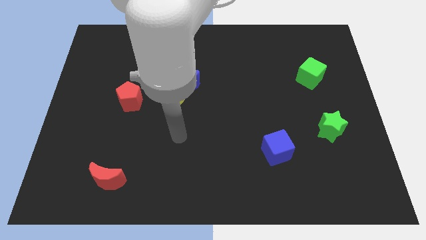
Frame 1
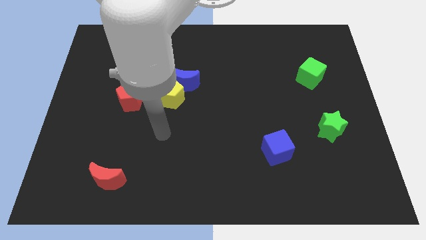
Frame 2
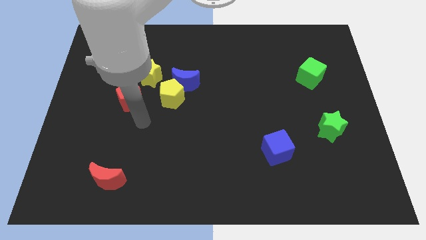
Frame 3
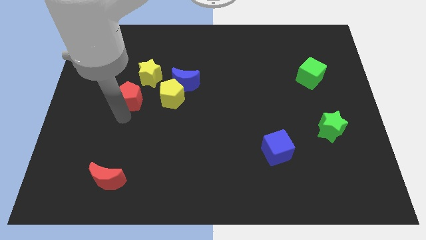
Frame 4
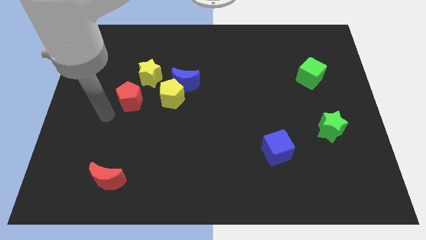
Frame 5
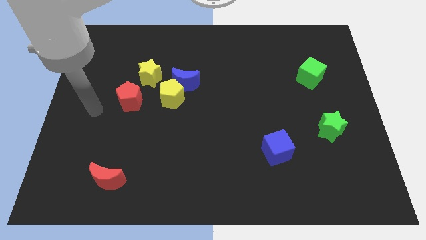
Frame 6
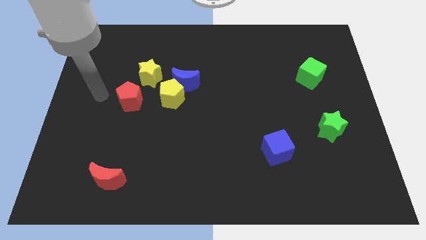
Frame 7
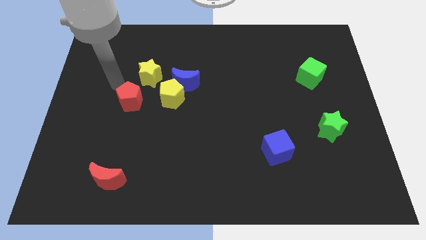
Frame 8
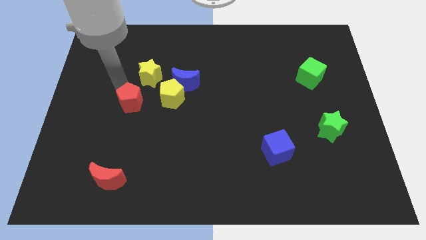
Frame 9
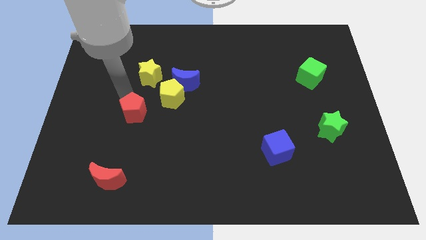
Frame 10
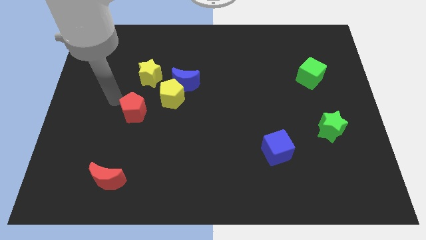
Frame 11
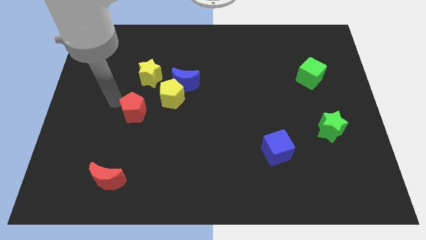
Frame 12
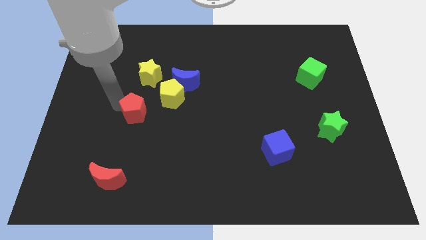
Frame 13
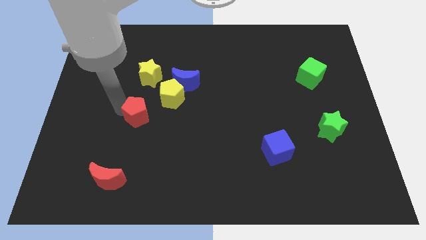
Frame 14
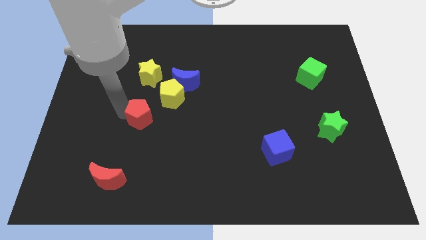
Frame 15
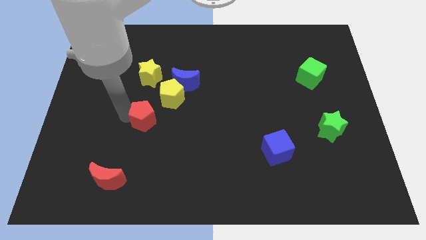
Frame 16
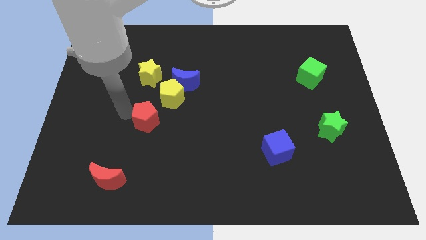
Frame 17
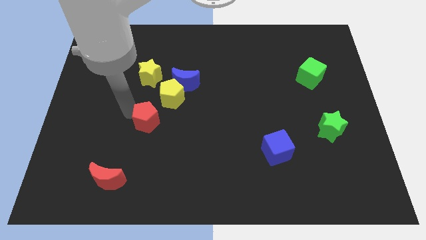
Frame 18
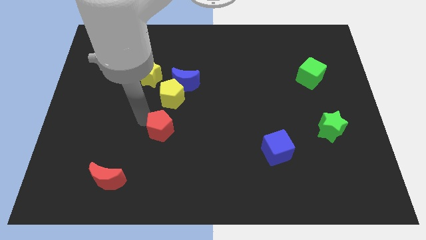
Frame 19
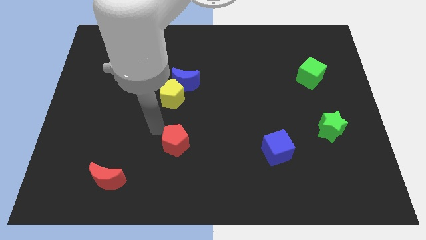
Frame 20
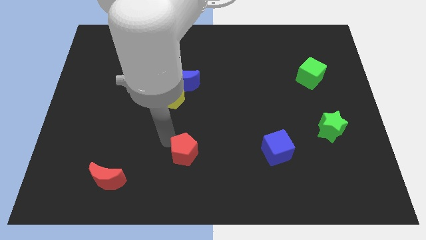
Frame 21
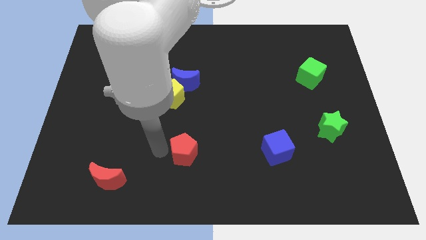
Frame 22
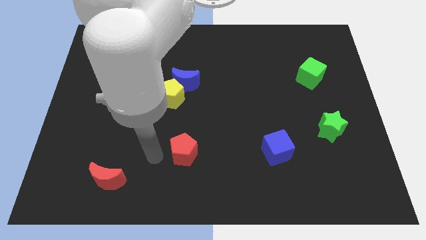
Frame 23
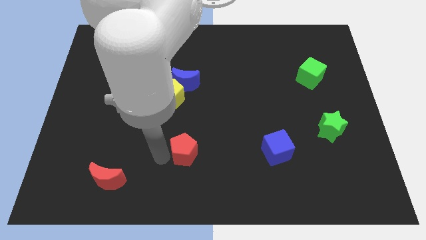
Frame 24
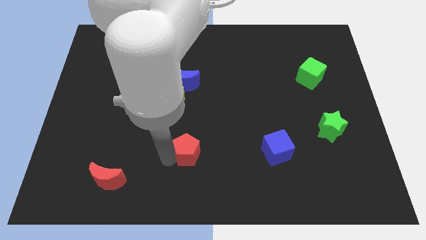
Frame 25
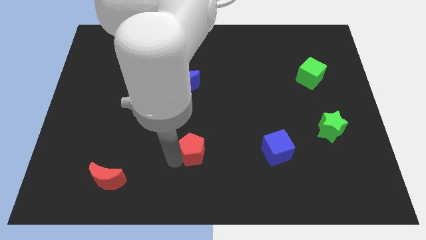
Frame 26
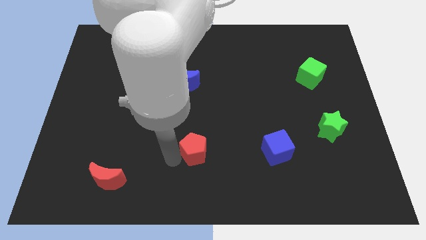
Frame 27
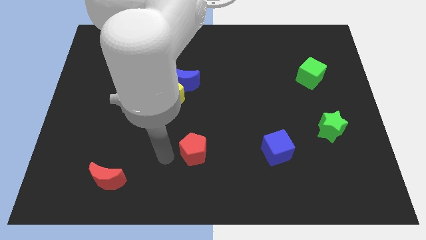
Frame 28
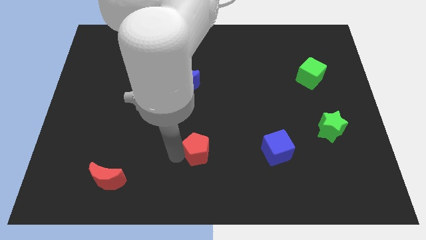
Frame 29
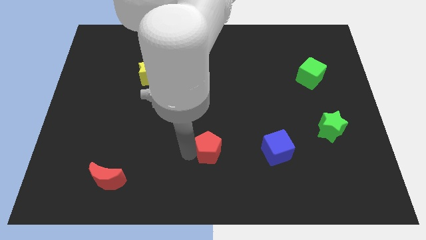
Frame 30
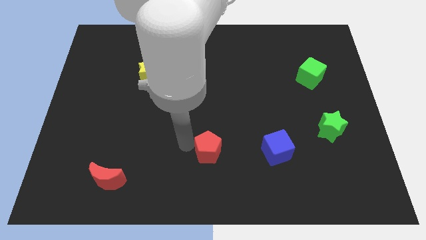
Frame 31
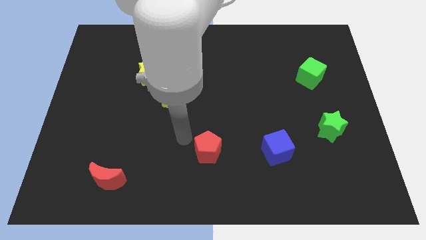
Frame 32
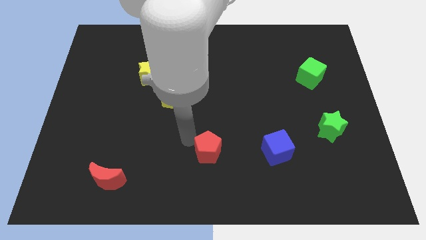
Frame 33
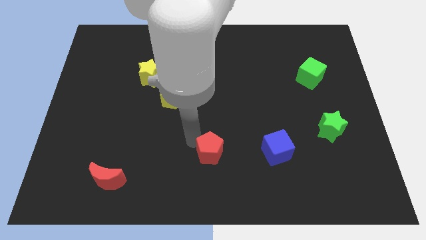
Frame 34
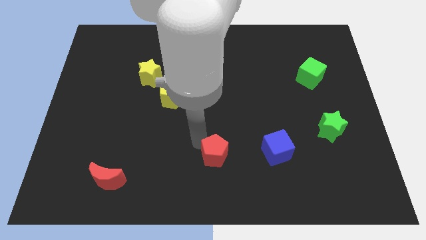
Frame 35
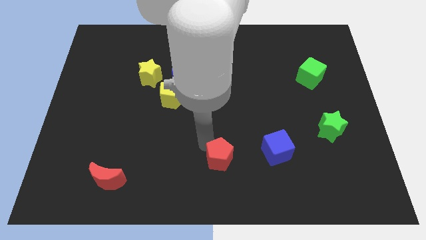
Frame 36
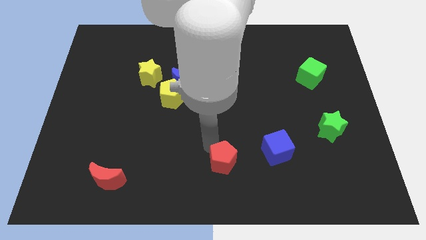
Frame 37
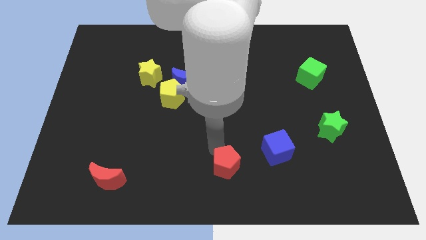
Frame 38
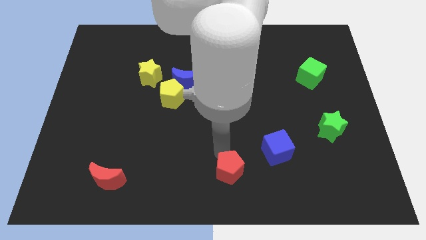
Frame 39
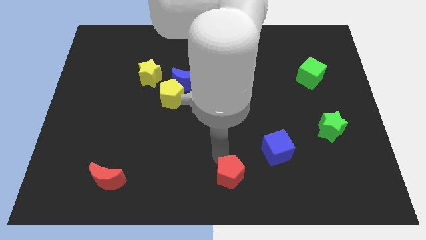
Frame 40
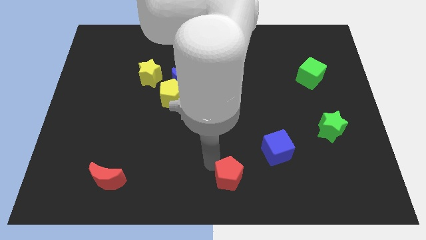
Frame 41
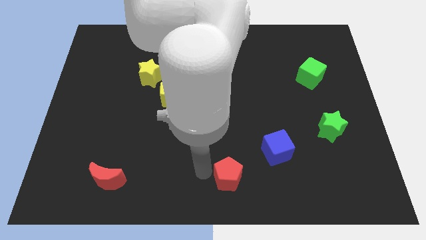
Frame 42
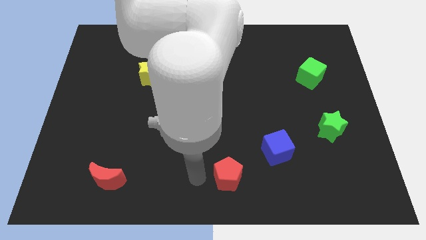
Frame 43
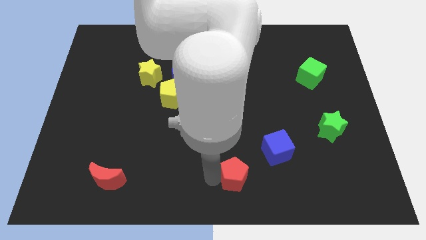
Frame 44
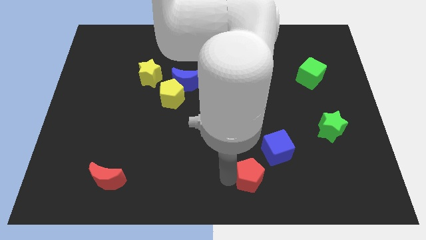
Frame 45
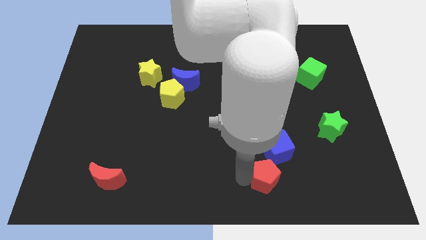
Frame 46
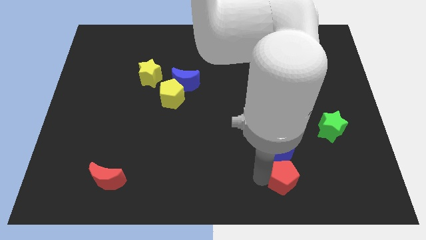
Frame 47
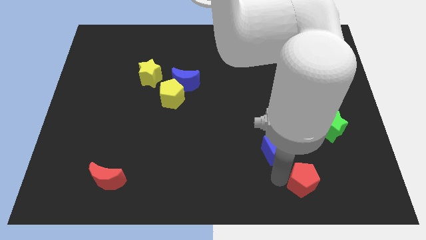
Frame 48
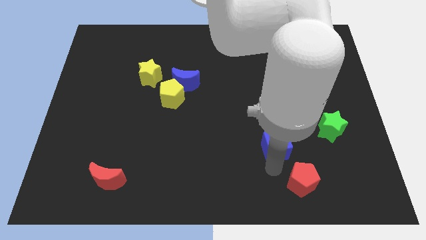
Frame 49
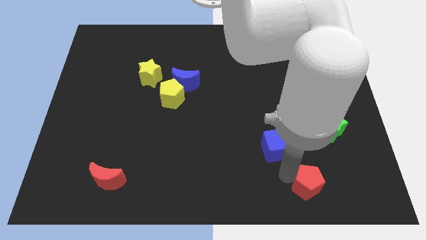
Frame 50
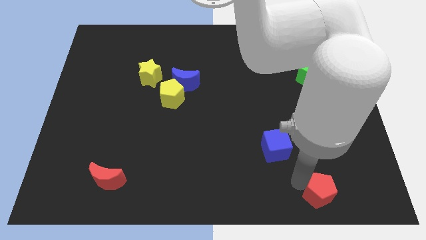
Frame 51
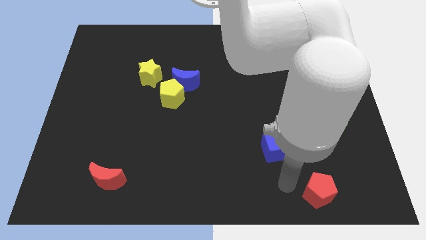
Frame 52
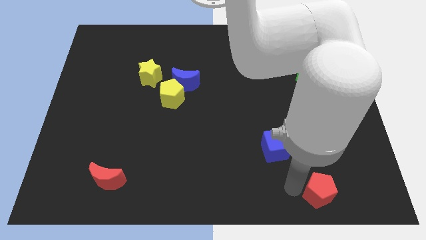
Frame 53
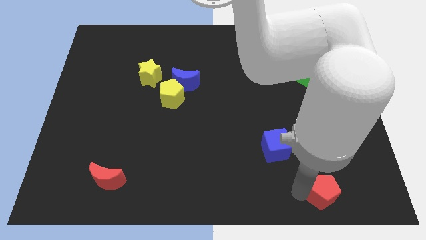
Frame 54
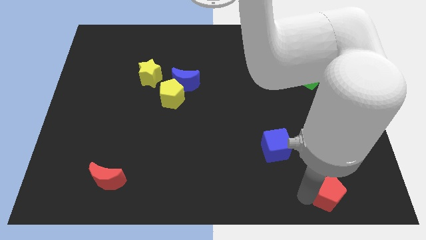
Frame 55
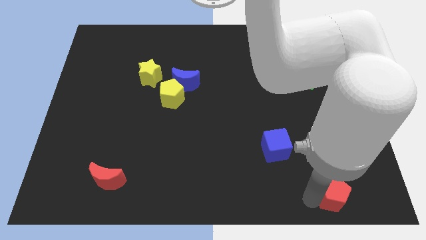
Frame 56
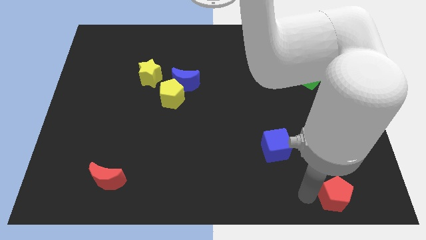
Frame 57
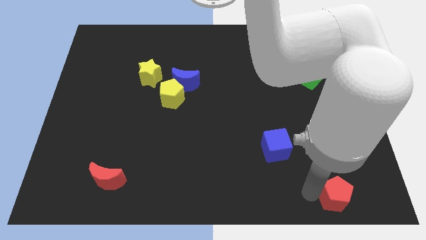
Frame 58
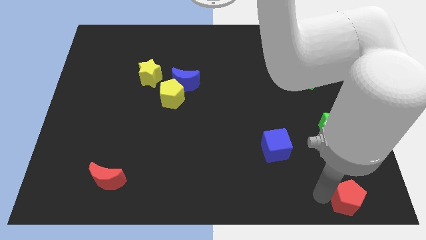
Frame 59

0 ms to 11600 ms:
move the red pentagon to the bottom right

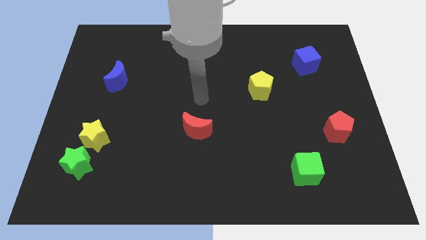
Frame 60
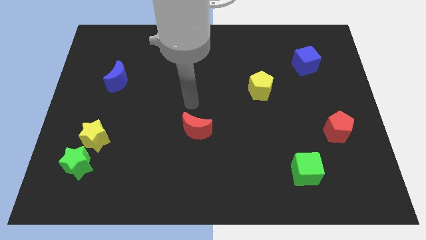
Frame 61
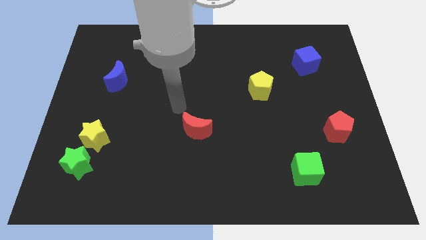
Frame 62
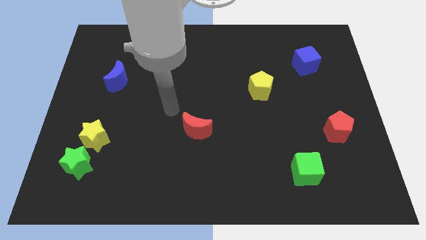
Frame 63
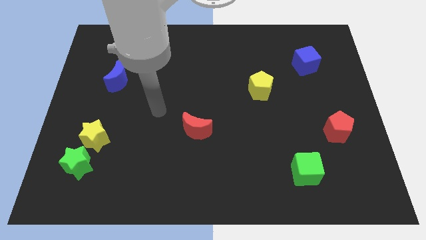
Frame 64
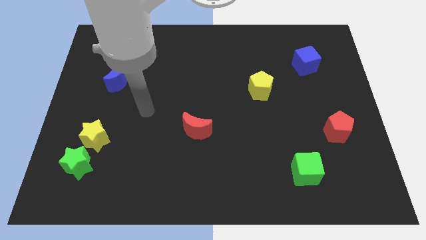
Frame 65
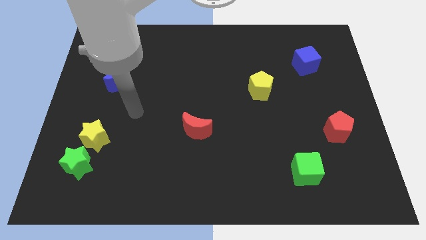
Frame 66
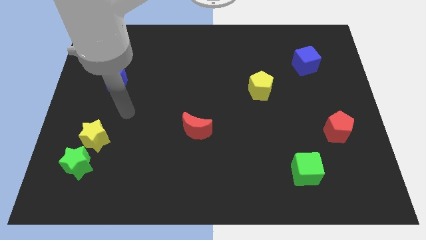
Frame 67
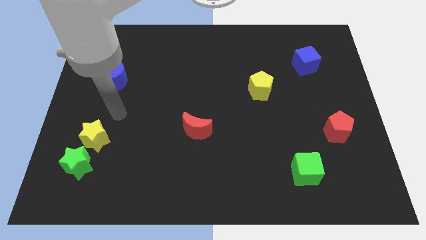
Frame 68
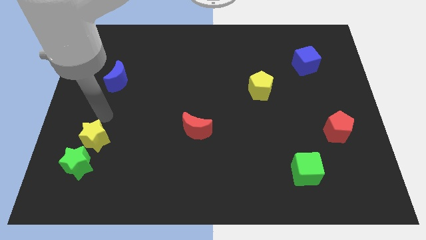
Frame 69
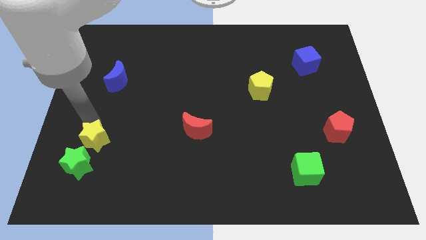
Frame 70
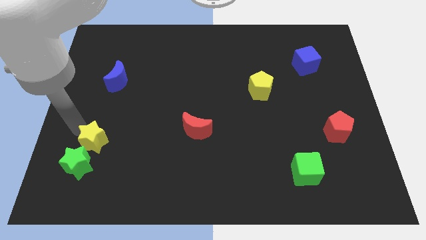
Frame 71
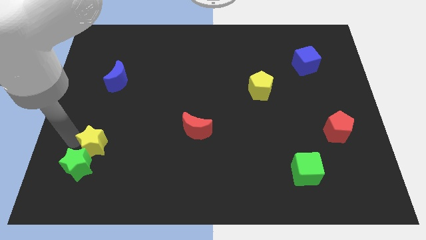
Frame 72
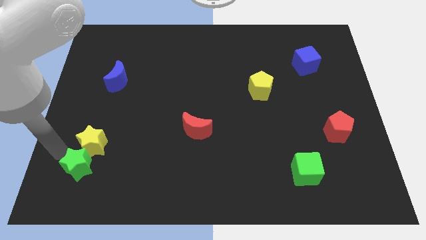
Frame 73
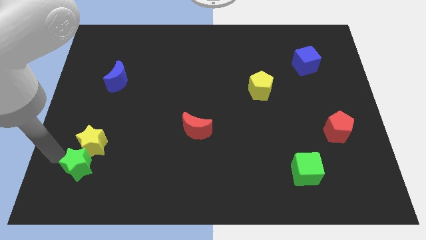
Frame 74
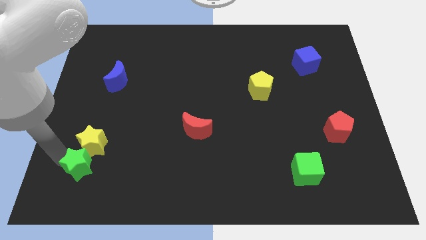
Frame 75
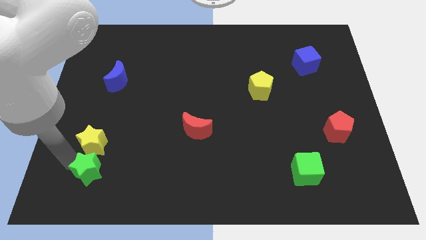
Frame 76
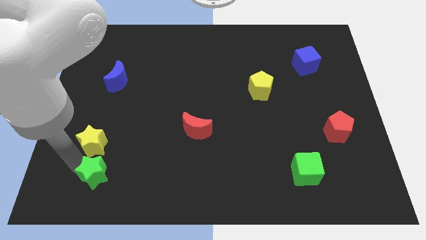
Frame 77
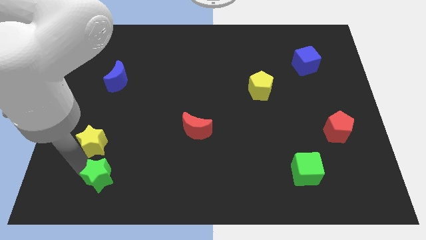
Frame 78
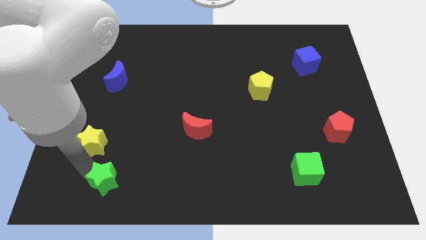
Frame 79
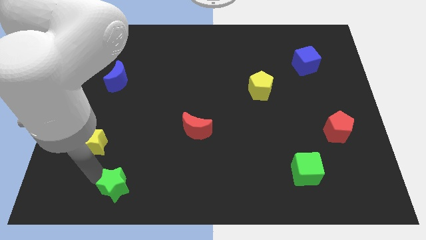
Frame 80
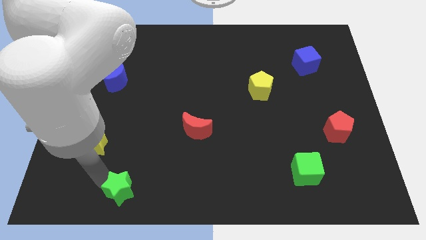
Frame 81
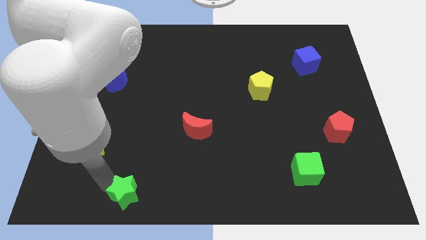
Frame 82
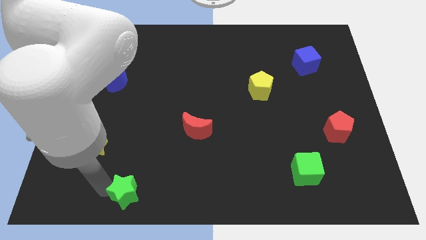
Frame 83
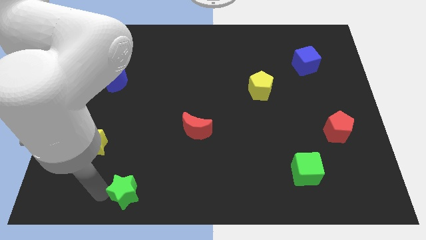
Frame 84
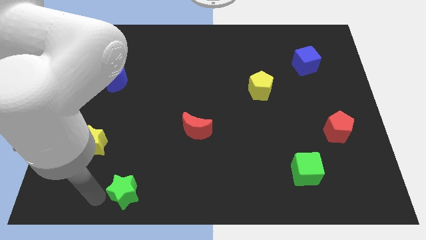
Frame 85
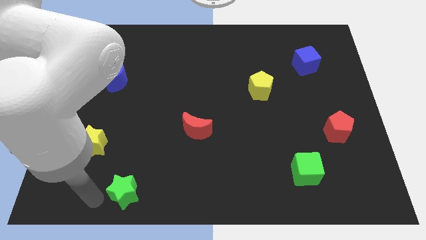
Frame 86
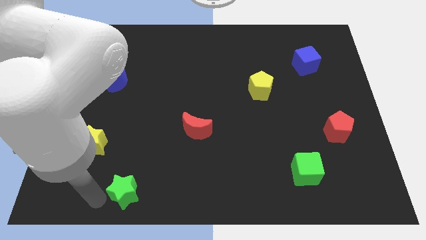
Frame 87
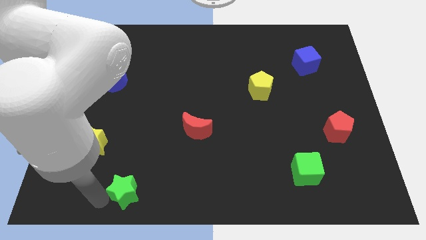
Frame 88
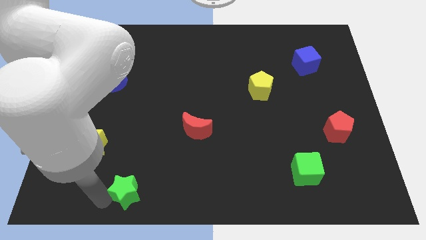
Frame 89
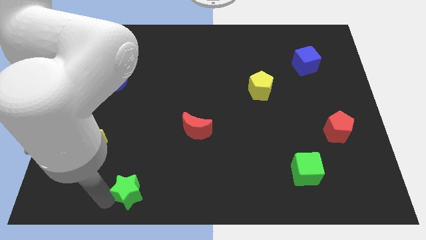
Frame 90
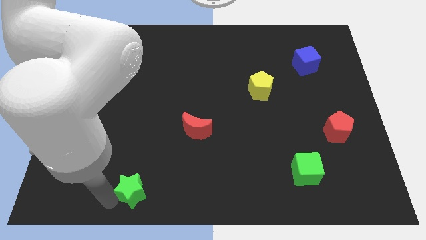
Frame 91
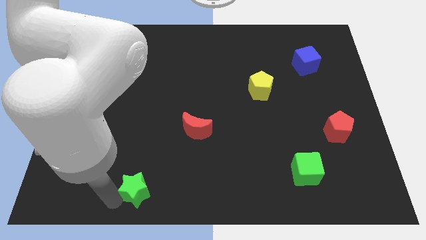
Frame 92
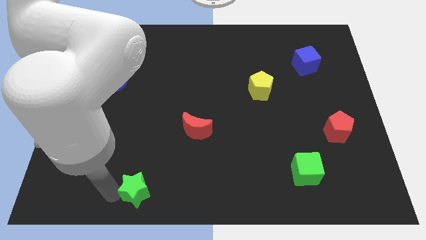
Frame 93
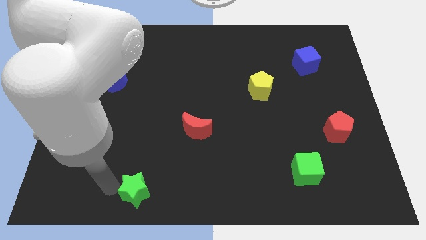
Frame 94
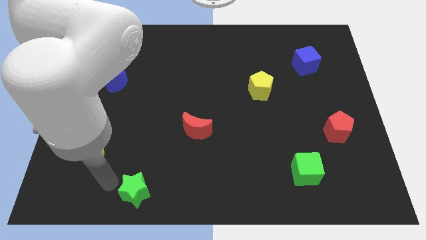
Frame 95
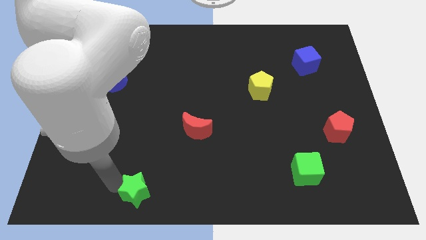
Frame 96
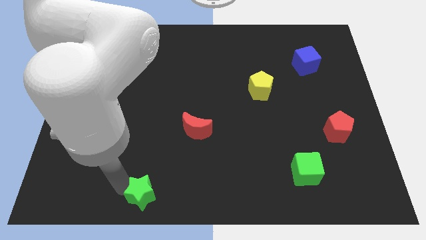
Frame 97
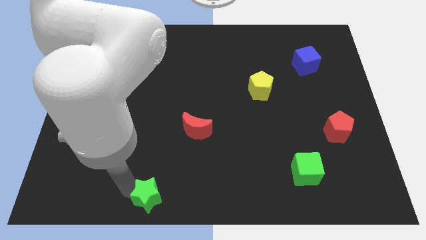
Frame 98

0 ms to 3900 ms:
put the green star to the bottom
